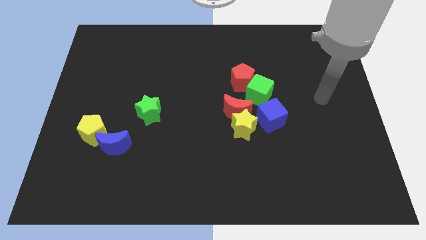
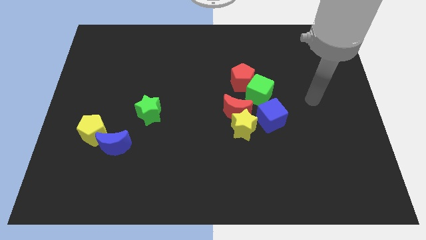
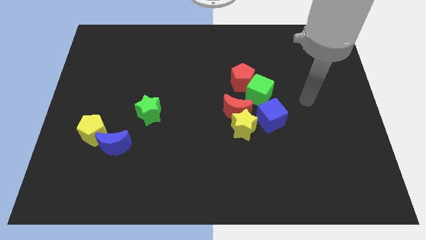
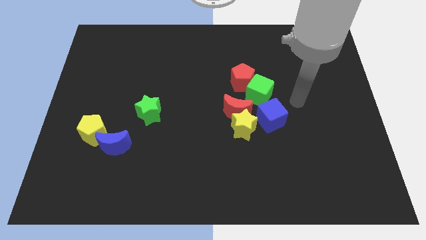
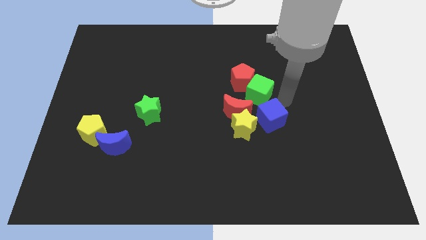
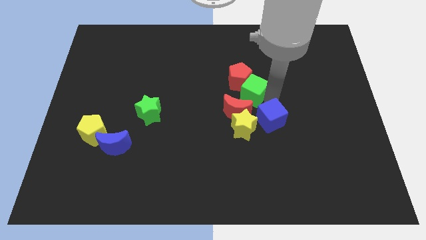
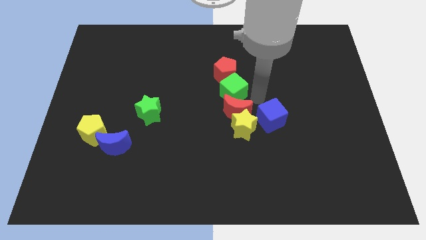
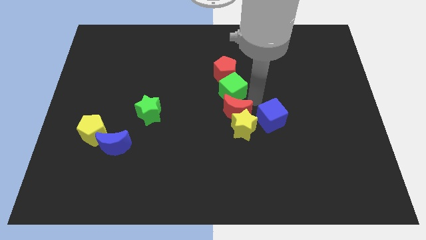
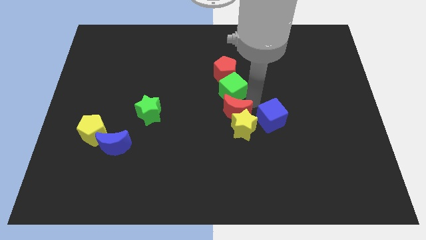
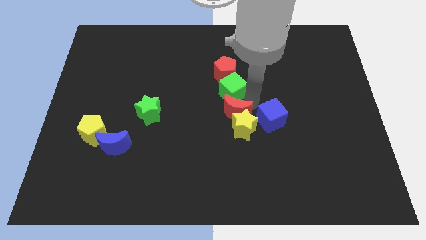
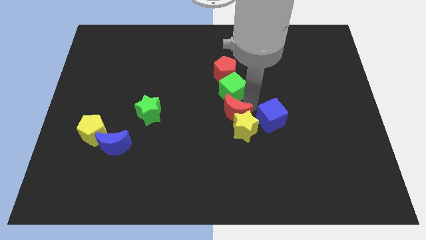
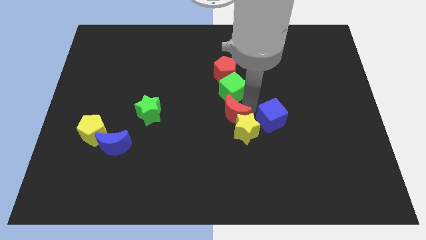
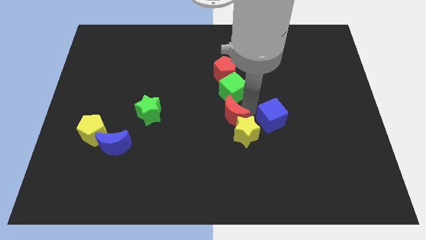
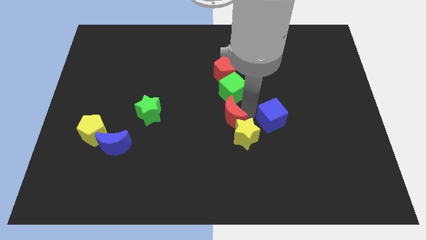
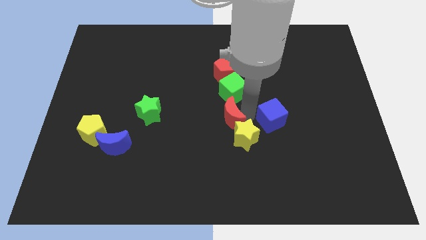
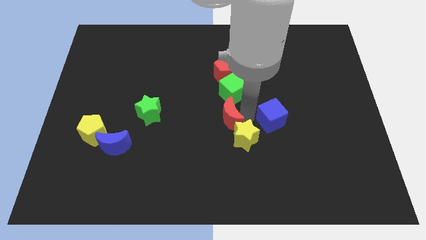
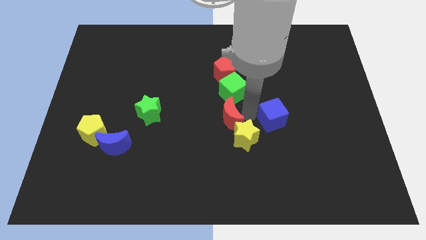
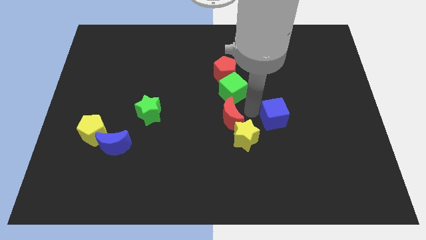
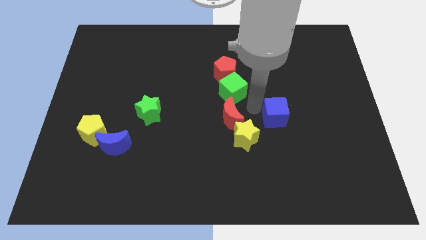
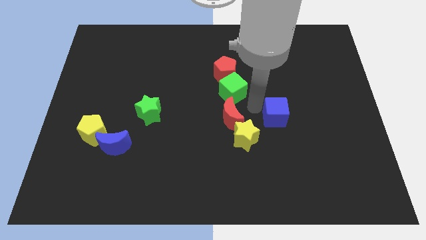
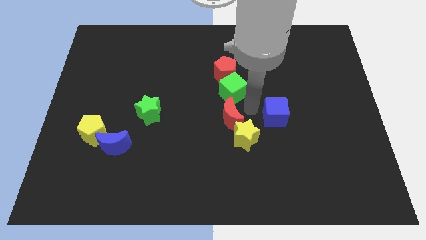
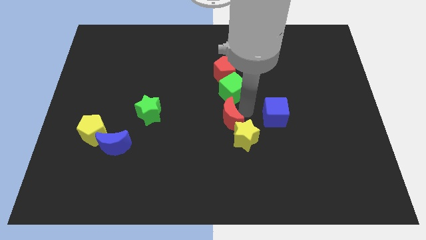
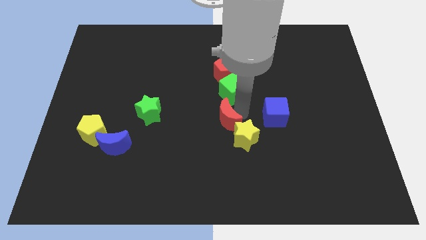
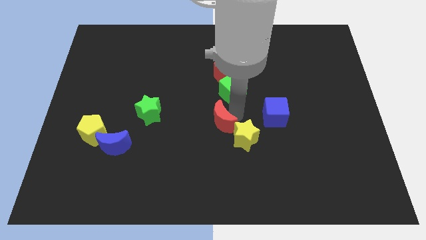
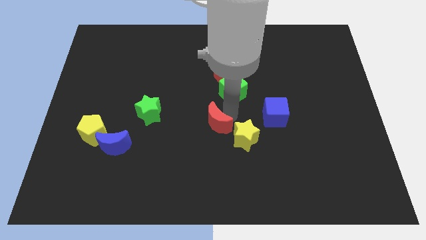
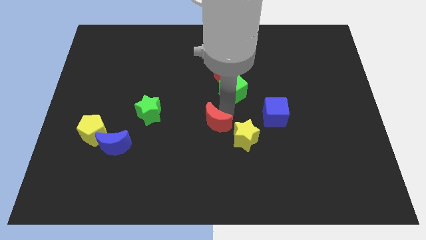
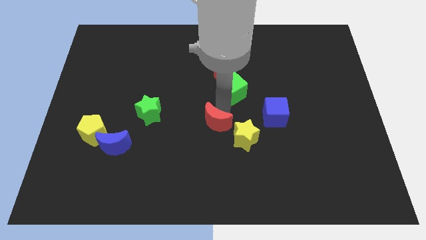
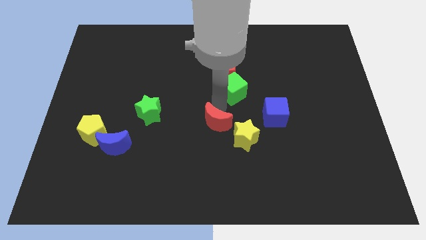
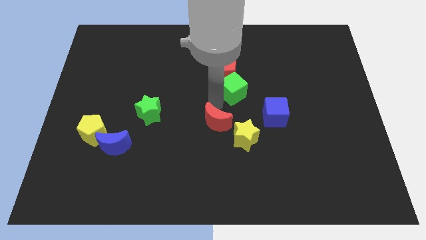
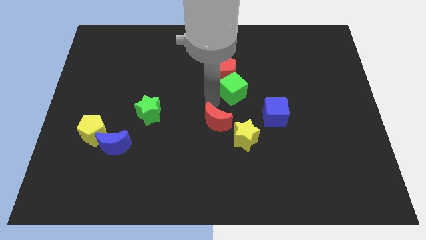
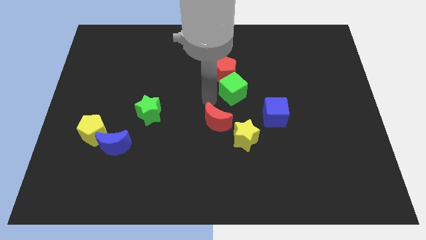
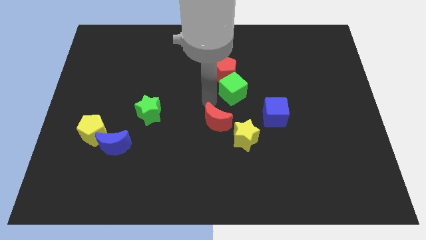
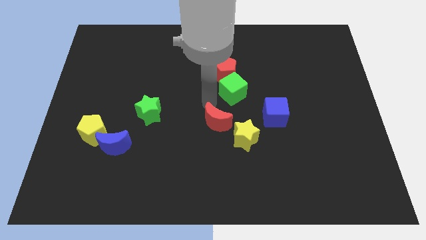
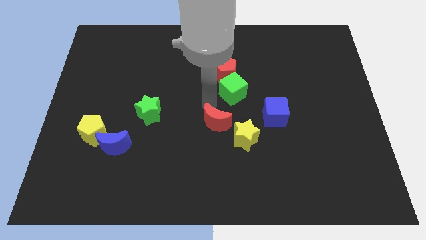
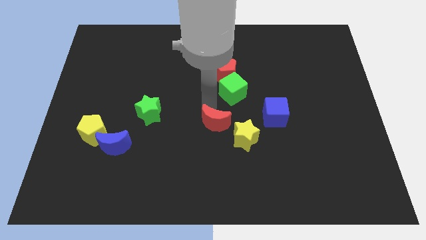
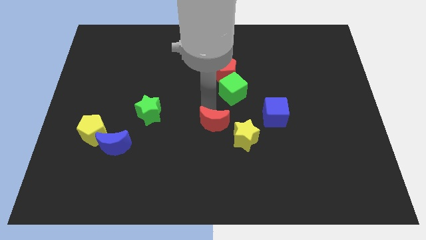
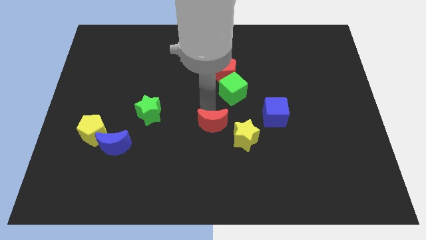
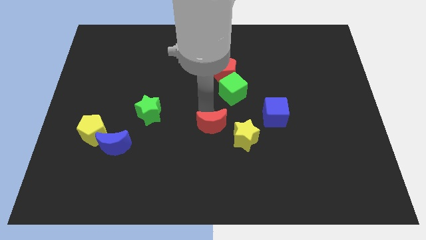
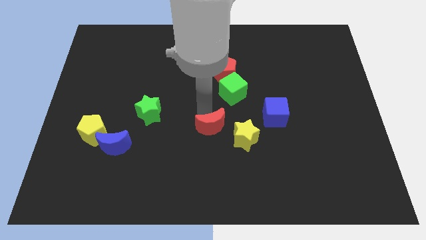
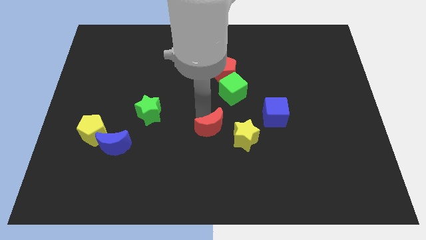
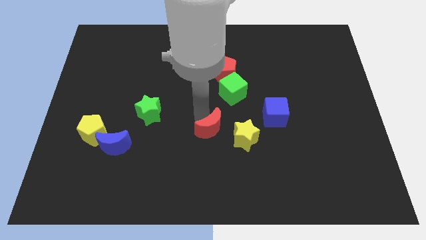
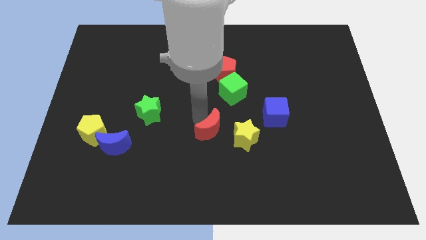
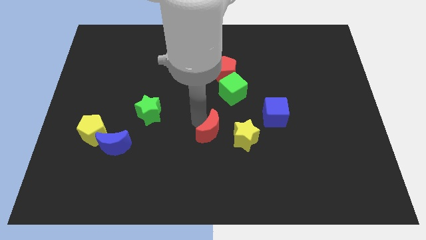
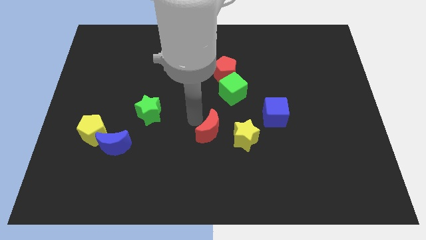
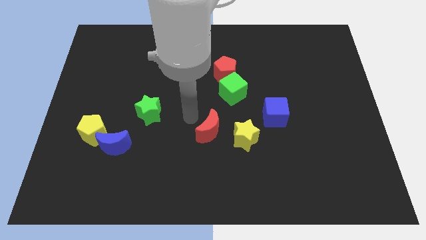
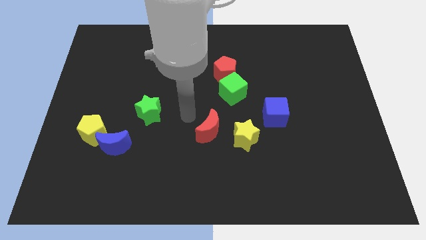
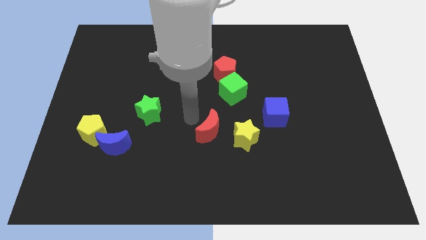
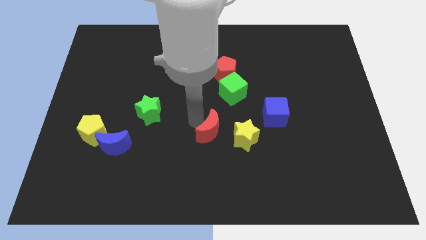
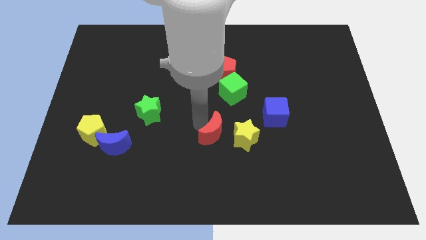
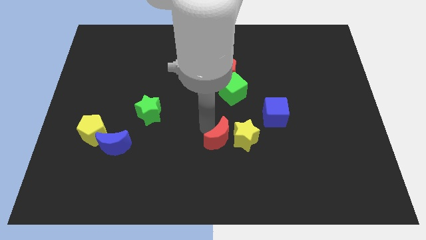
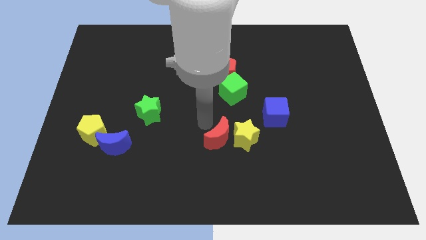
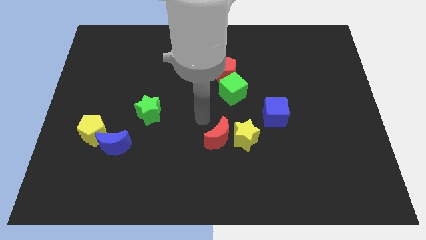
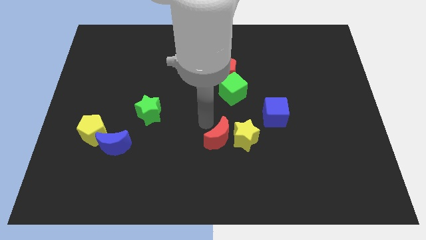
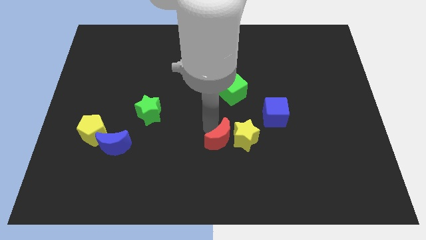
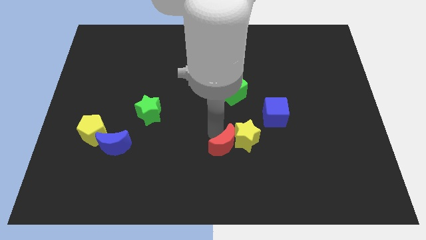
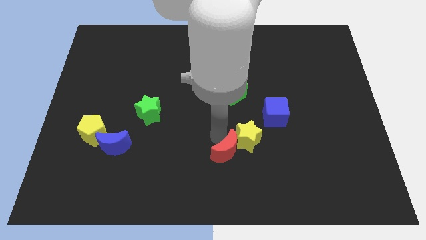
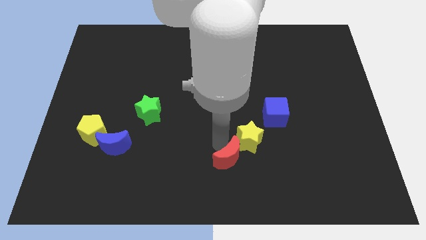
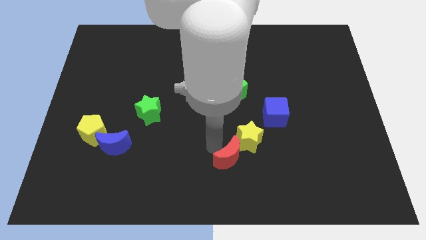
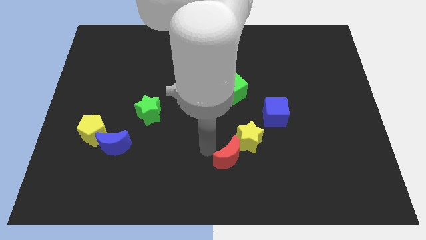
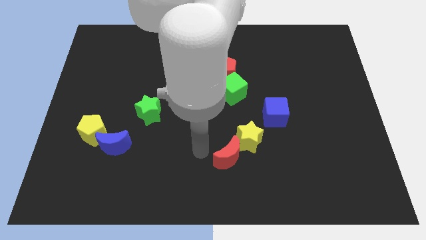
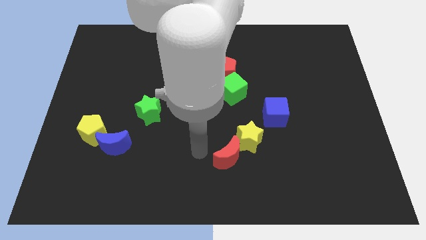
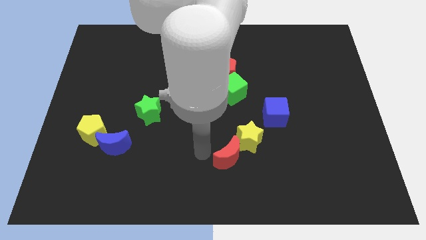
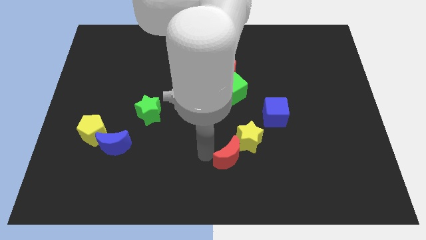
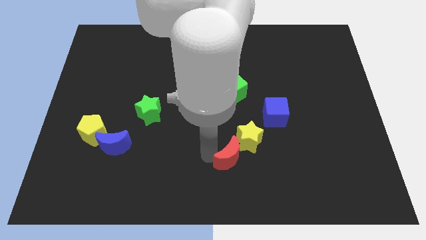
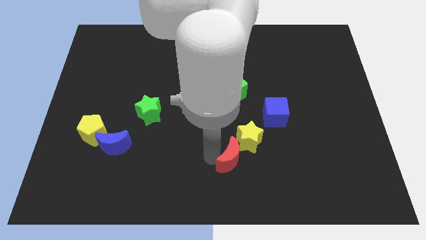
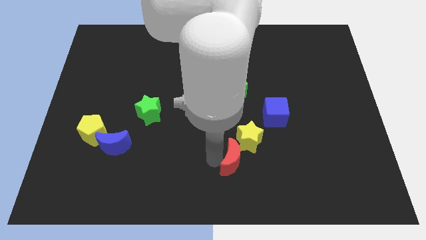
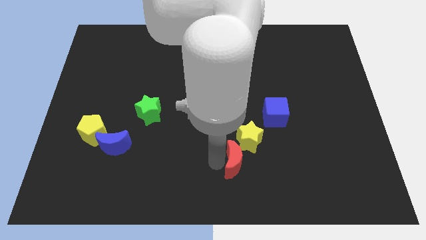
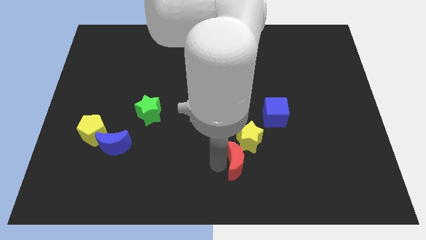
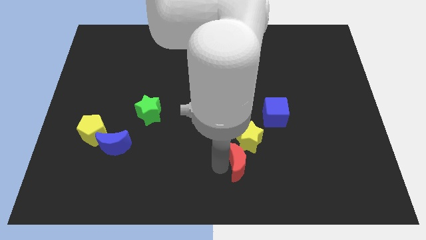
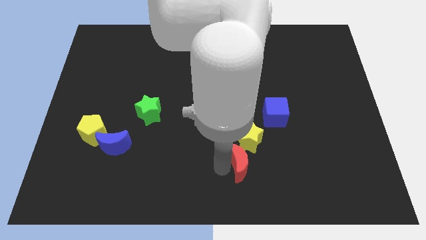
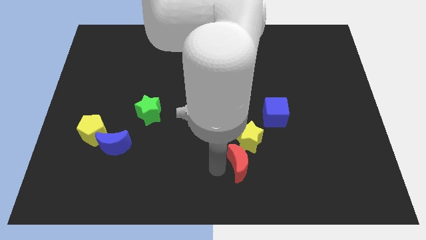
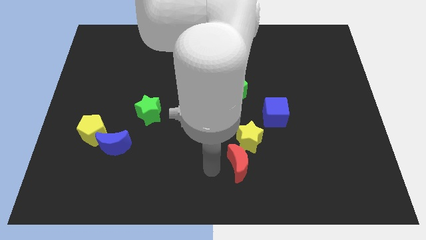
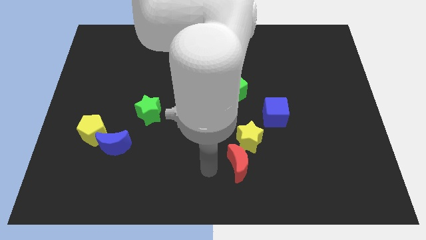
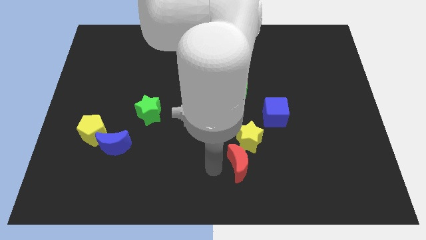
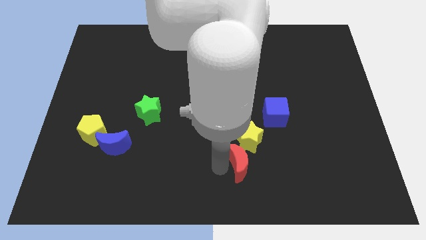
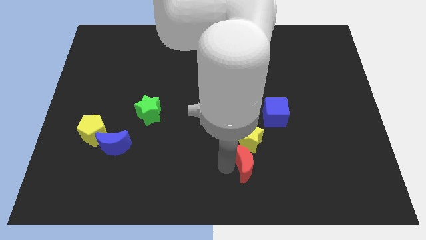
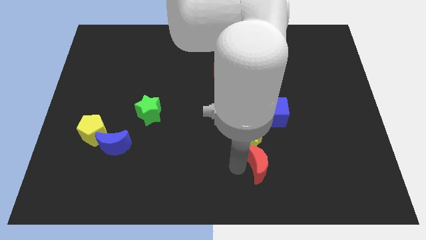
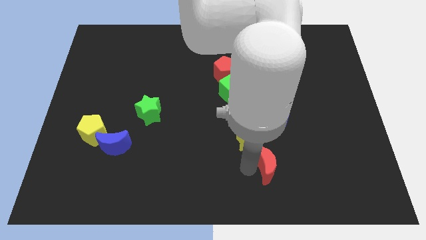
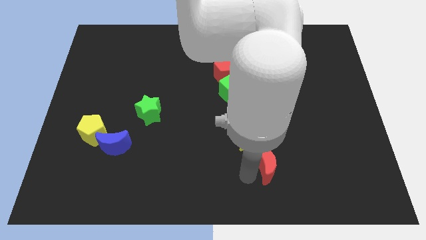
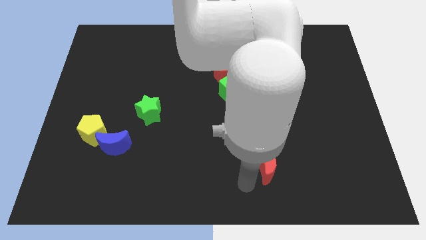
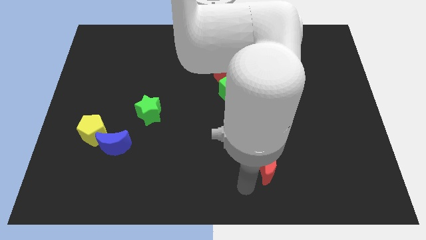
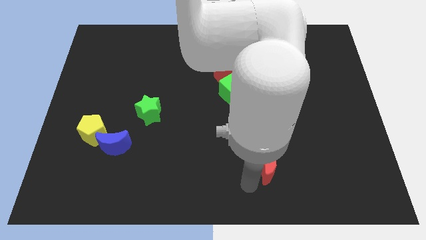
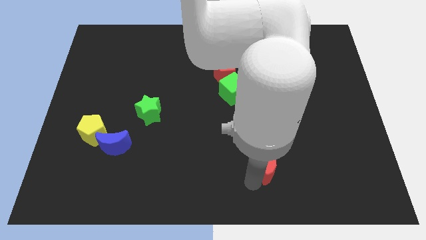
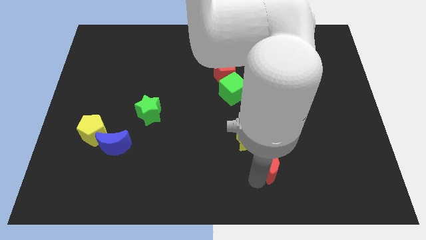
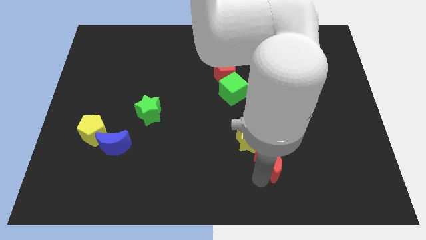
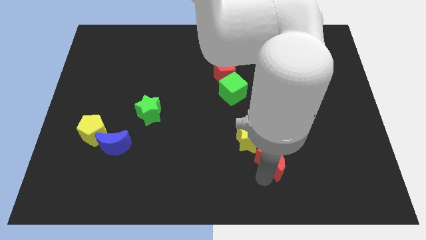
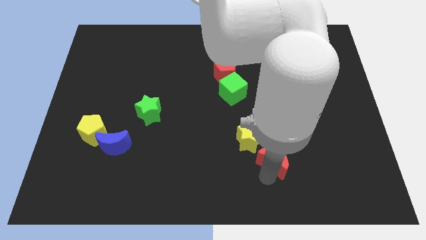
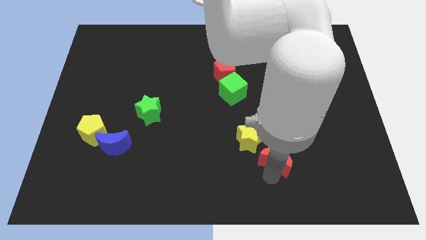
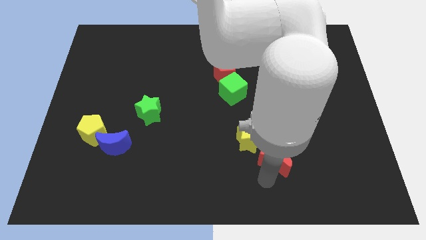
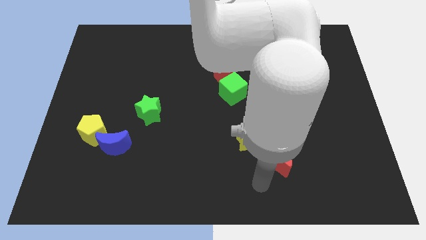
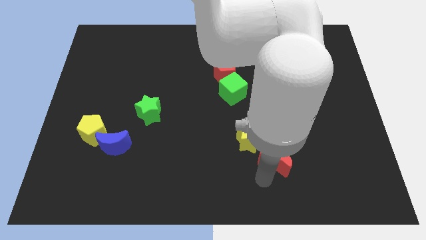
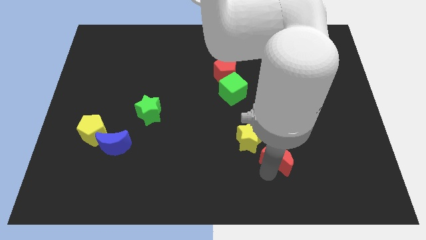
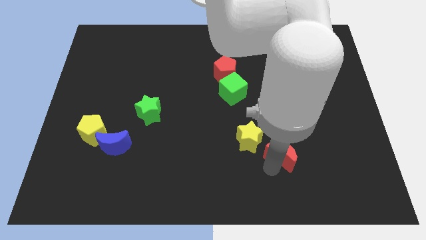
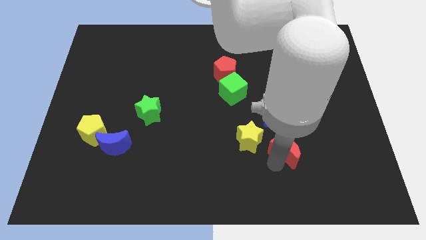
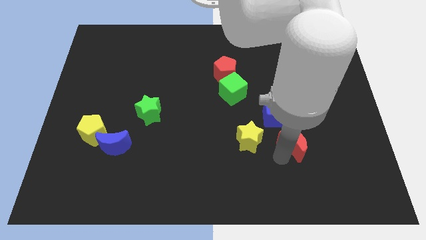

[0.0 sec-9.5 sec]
push the red moon right a little
